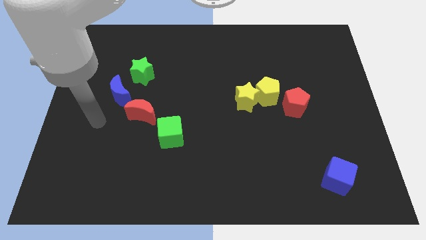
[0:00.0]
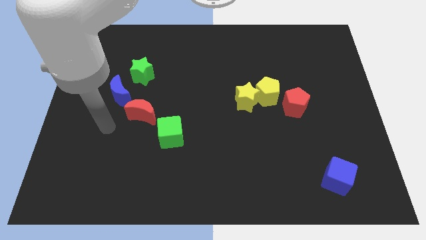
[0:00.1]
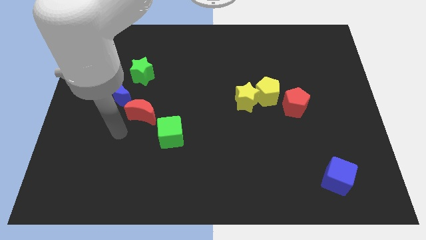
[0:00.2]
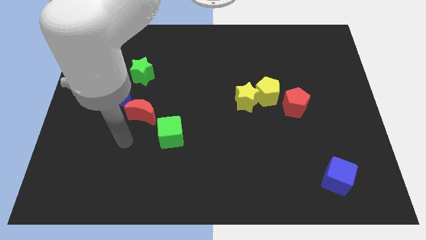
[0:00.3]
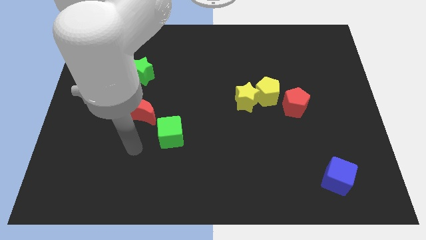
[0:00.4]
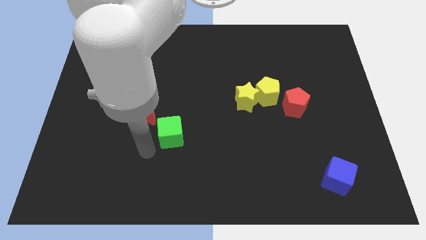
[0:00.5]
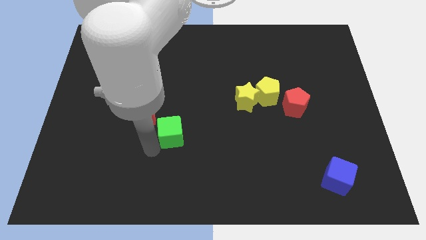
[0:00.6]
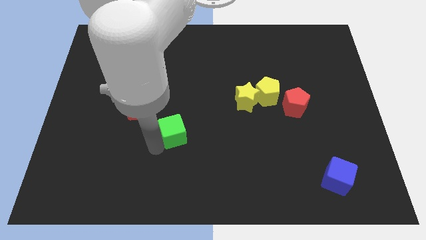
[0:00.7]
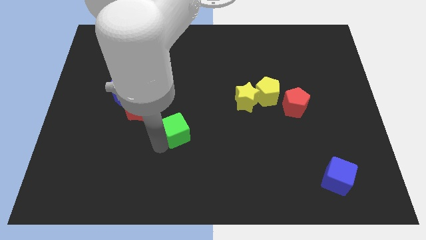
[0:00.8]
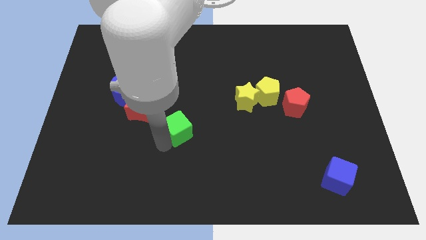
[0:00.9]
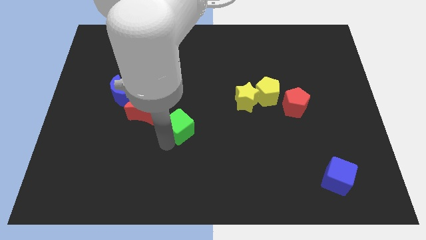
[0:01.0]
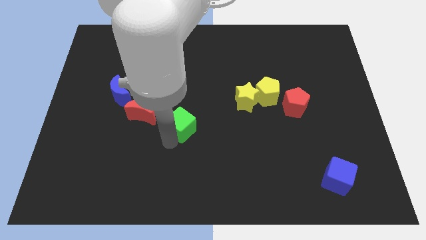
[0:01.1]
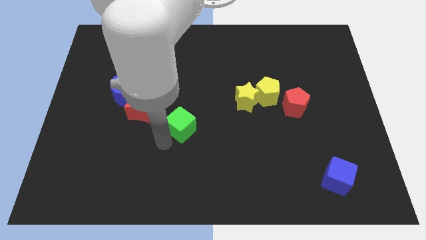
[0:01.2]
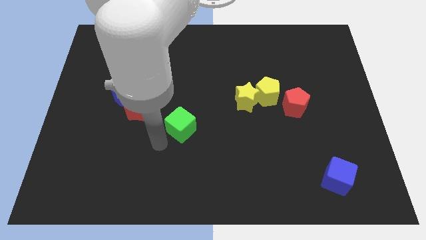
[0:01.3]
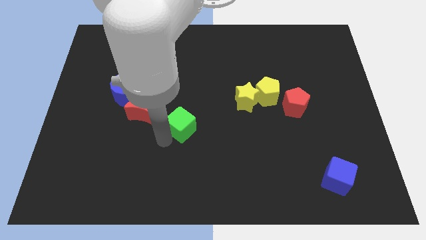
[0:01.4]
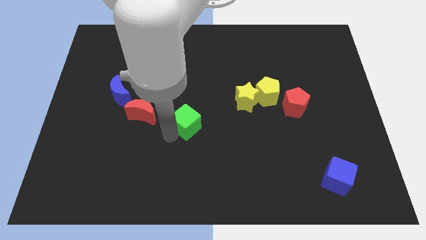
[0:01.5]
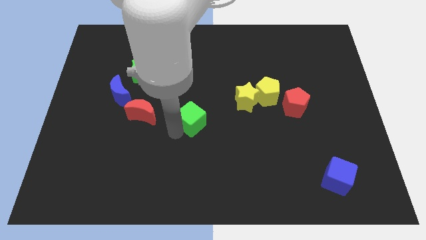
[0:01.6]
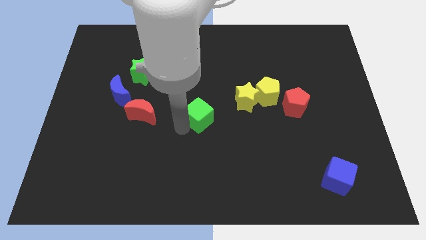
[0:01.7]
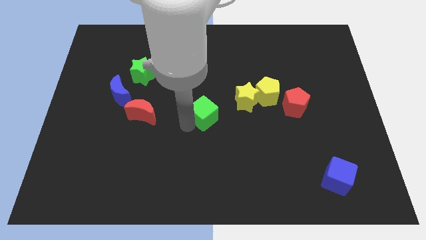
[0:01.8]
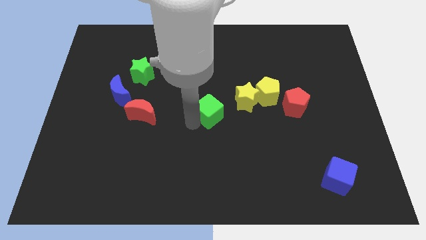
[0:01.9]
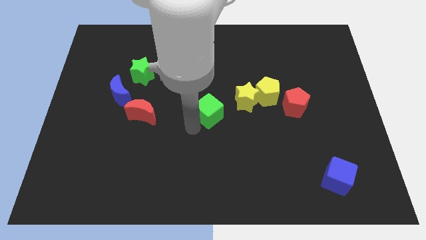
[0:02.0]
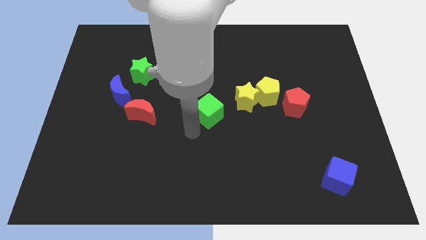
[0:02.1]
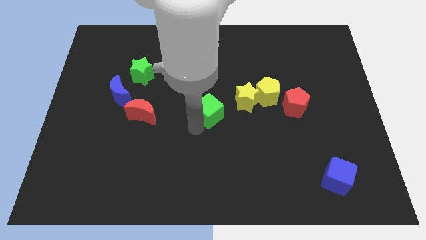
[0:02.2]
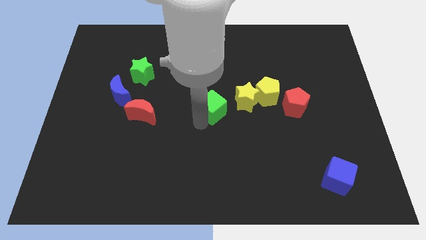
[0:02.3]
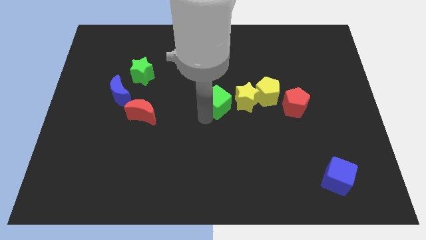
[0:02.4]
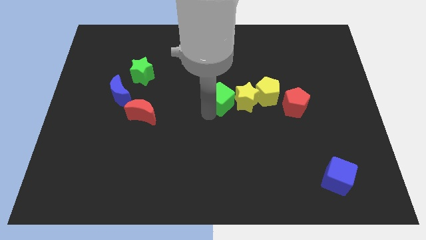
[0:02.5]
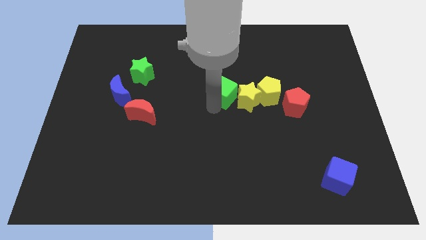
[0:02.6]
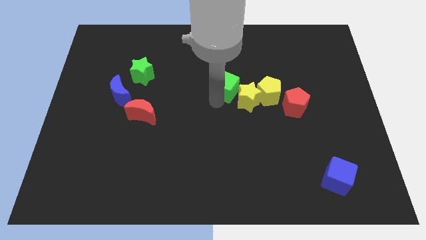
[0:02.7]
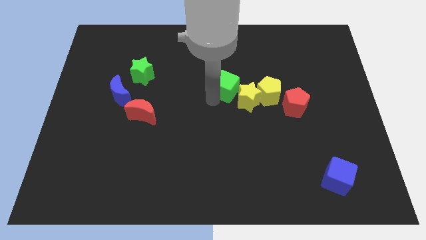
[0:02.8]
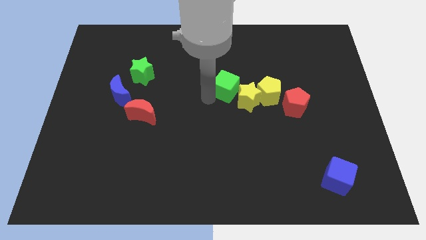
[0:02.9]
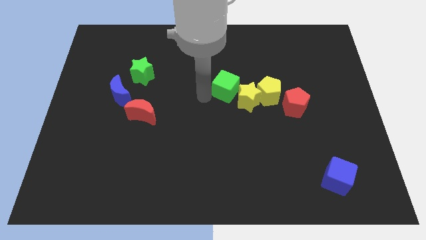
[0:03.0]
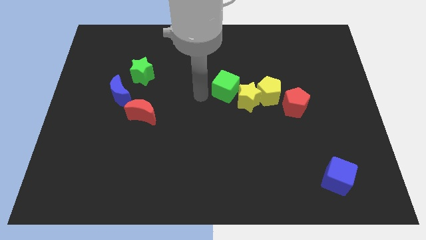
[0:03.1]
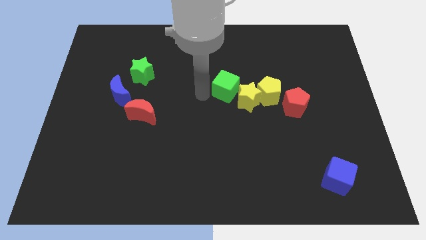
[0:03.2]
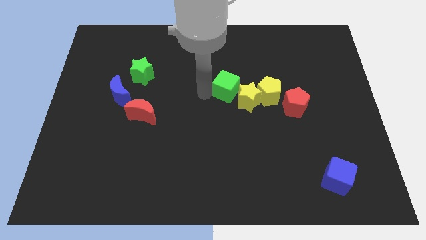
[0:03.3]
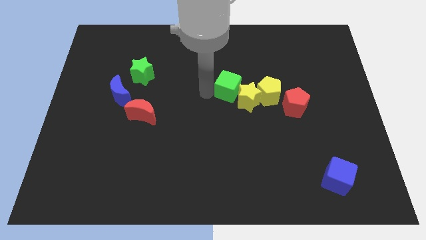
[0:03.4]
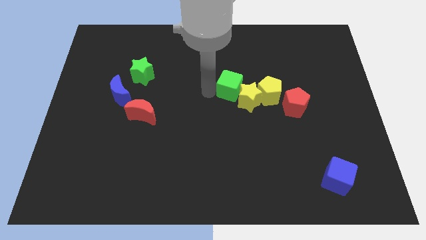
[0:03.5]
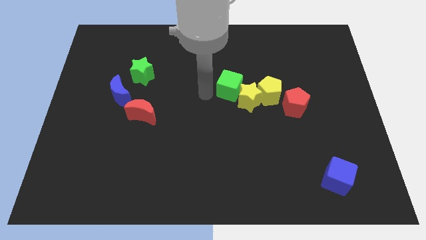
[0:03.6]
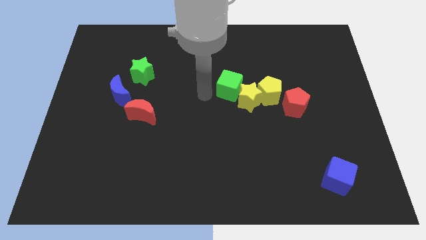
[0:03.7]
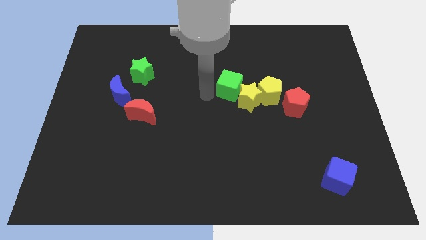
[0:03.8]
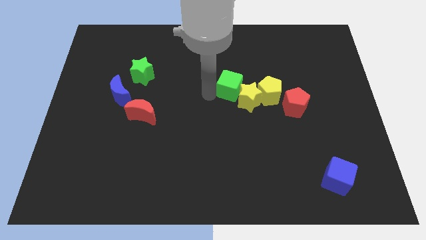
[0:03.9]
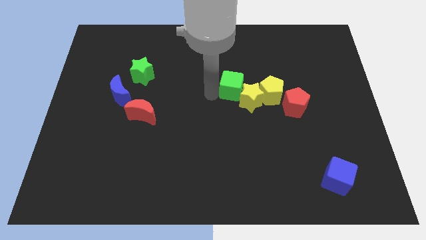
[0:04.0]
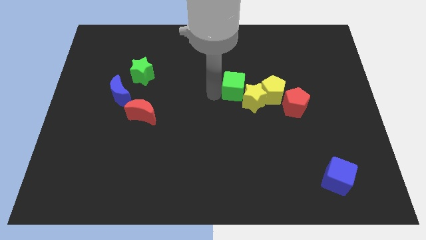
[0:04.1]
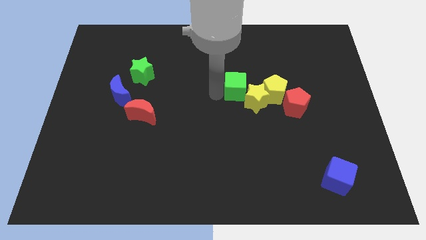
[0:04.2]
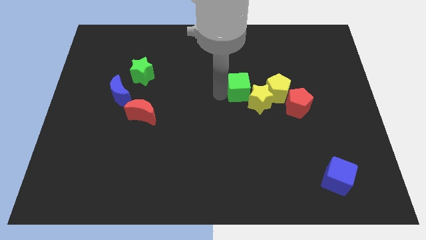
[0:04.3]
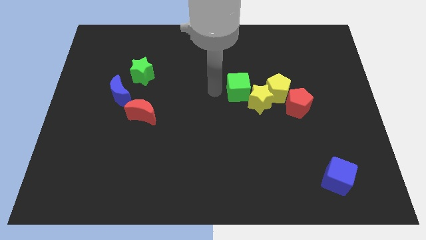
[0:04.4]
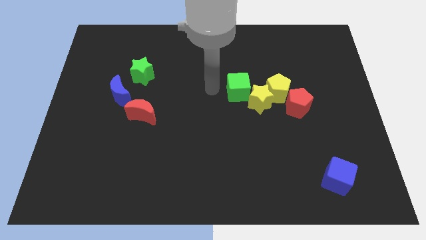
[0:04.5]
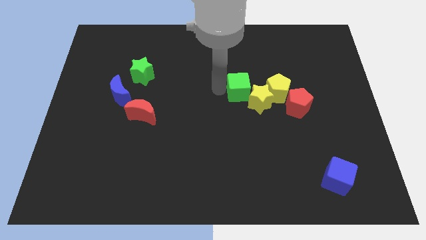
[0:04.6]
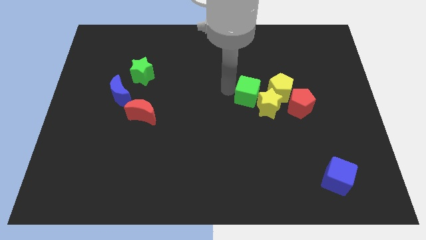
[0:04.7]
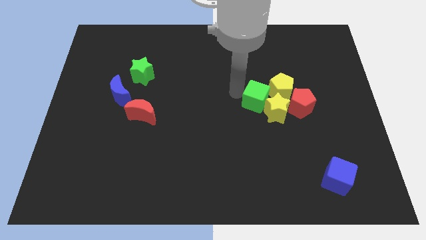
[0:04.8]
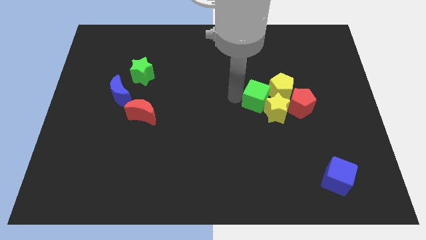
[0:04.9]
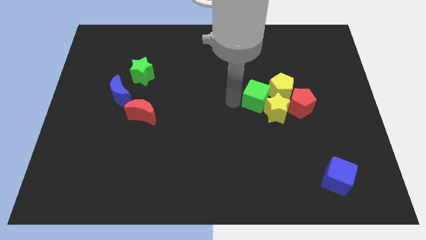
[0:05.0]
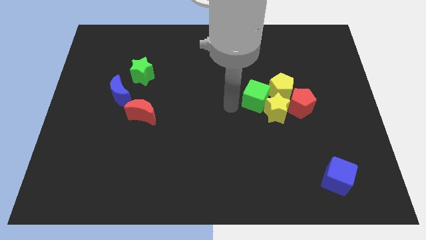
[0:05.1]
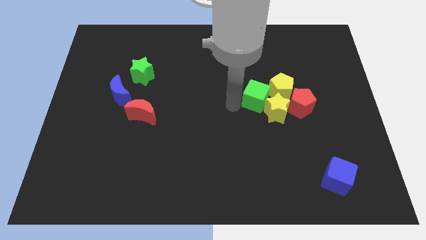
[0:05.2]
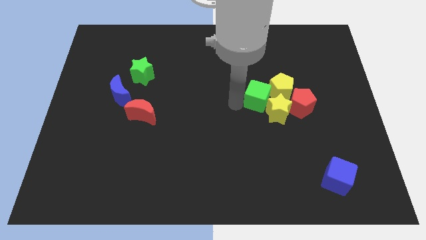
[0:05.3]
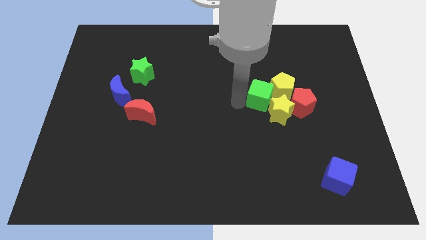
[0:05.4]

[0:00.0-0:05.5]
push the green cube next to the yellow pentagon
